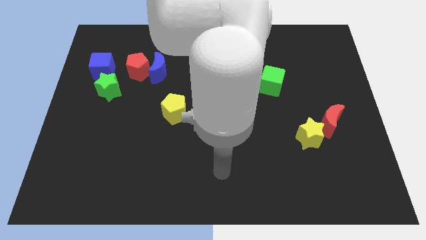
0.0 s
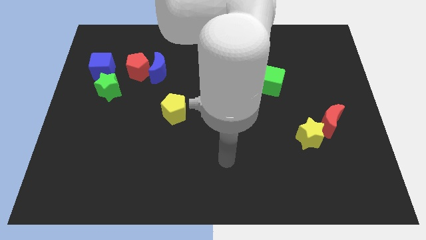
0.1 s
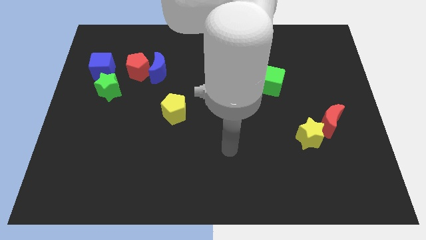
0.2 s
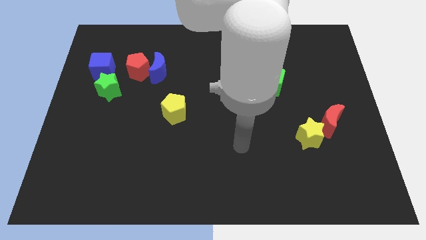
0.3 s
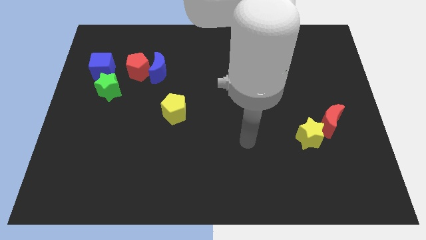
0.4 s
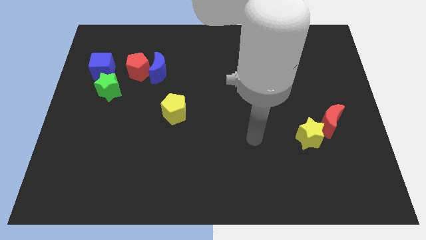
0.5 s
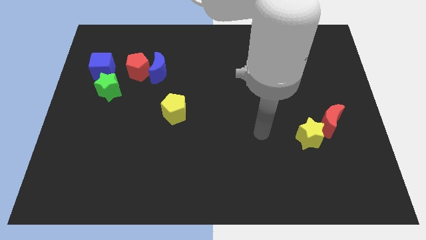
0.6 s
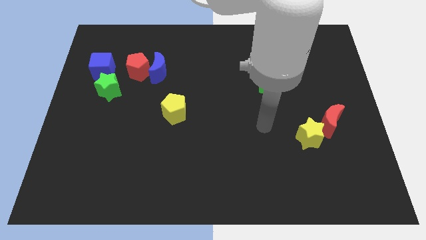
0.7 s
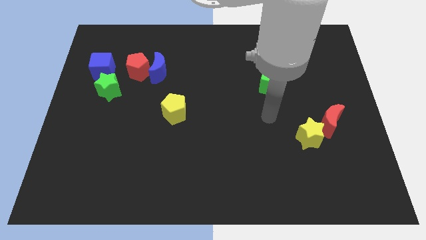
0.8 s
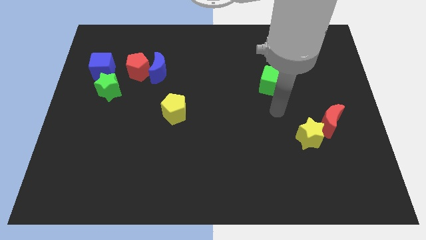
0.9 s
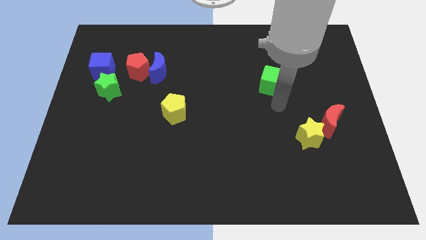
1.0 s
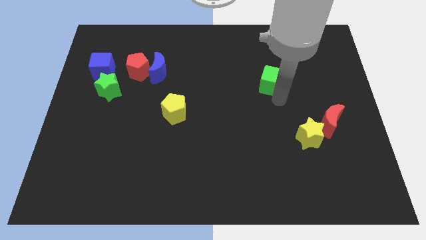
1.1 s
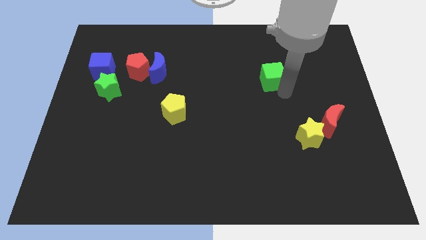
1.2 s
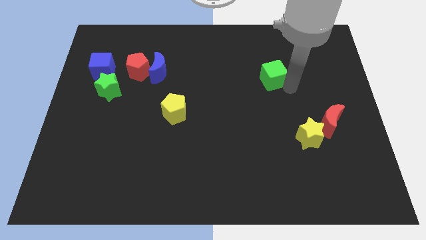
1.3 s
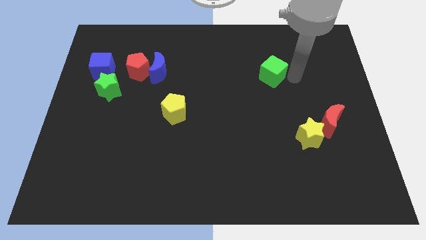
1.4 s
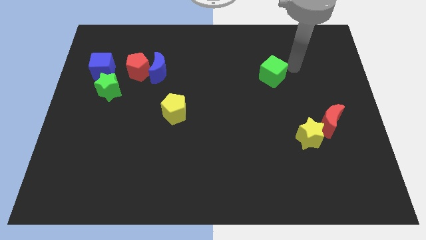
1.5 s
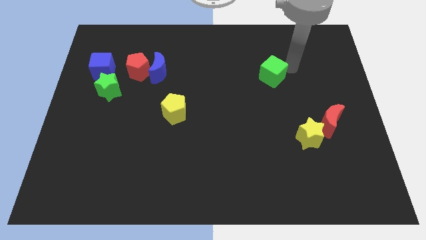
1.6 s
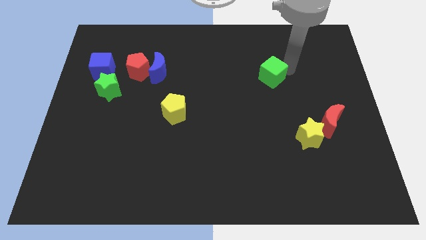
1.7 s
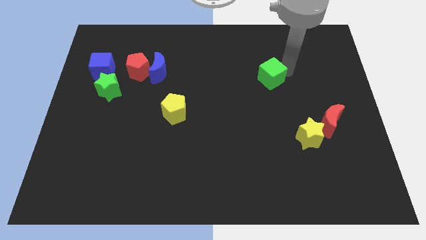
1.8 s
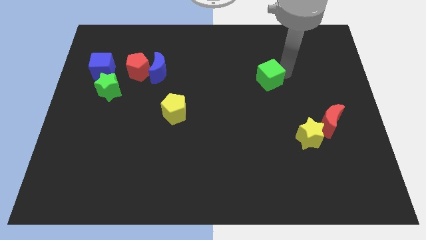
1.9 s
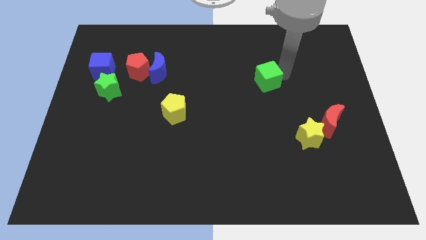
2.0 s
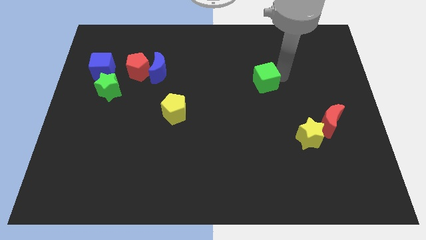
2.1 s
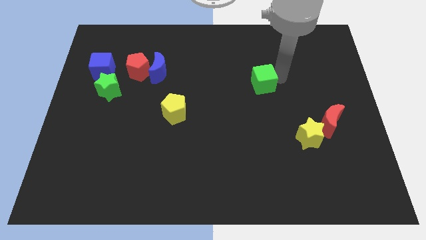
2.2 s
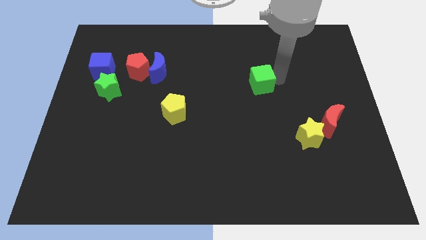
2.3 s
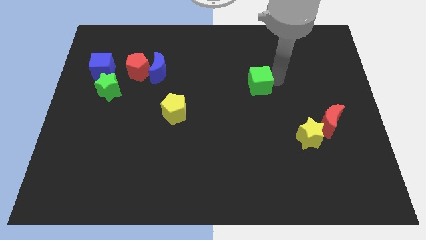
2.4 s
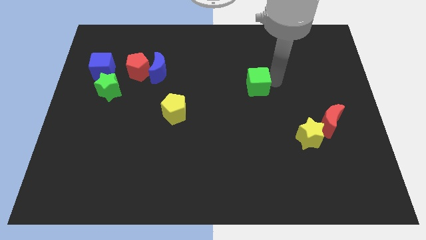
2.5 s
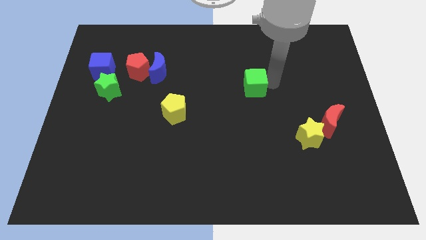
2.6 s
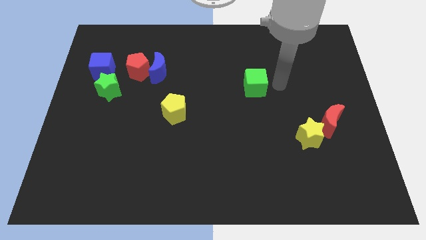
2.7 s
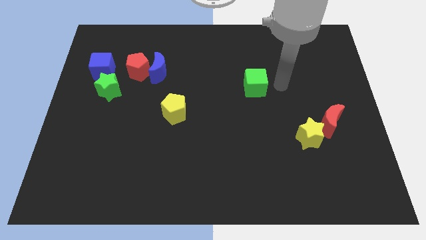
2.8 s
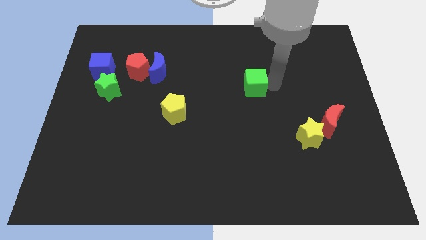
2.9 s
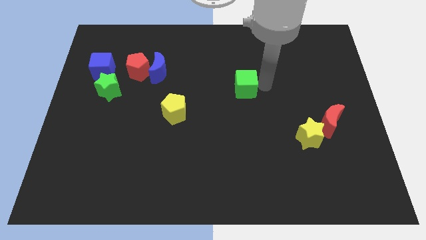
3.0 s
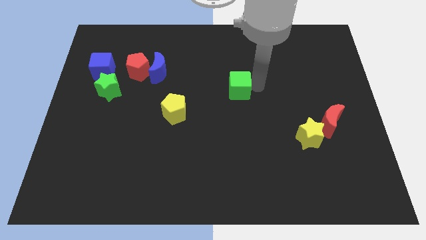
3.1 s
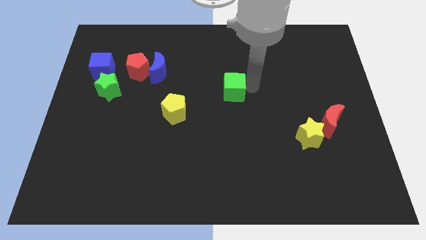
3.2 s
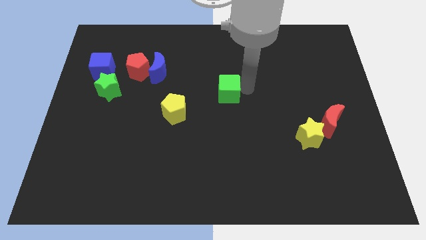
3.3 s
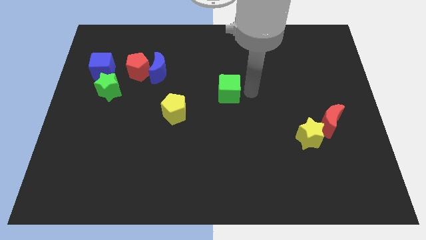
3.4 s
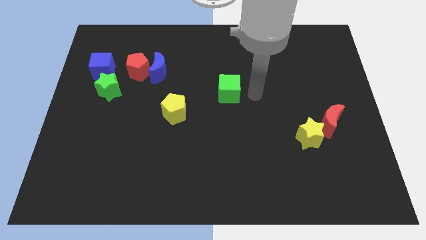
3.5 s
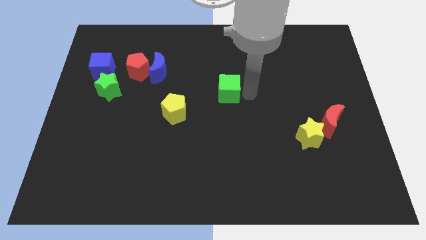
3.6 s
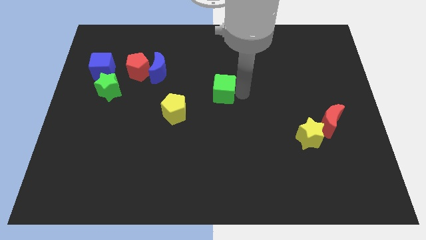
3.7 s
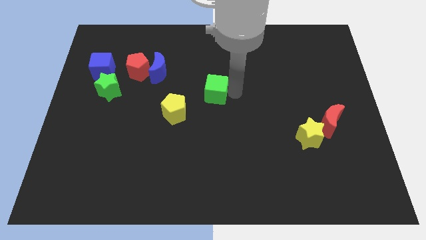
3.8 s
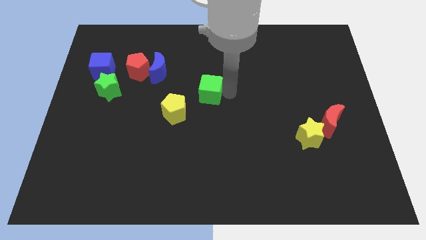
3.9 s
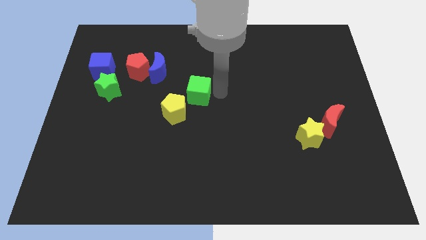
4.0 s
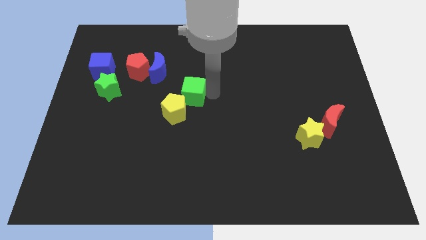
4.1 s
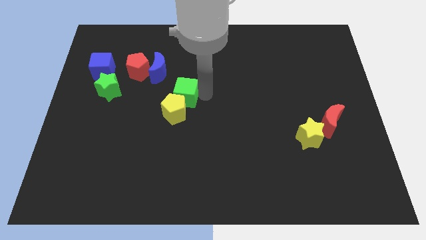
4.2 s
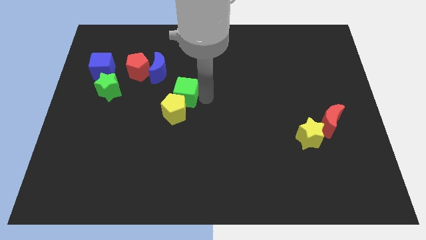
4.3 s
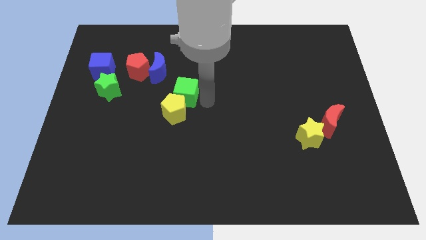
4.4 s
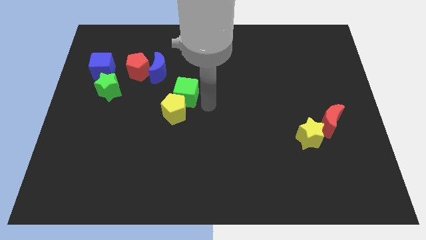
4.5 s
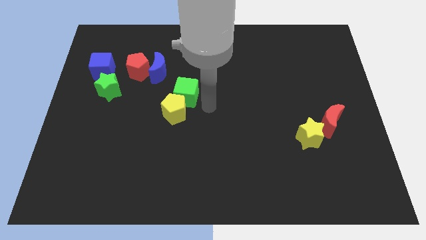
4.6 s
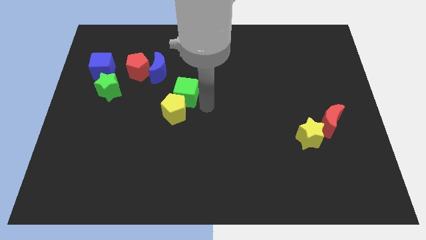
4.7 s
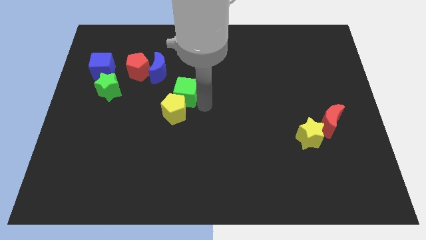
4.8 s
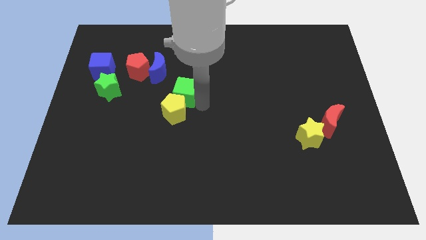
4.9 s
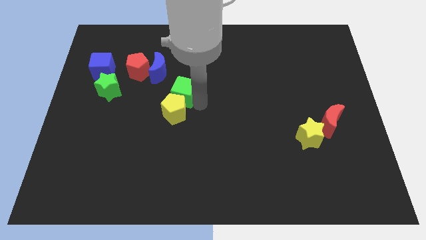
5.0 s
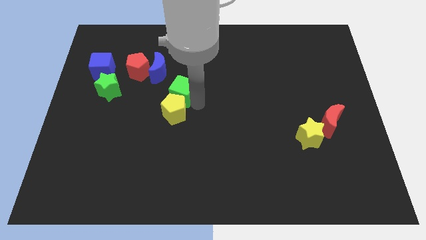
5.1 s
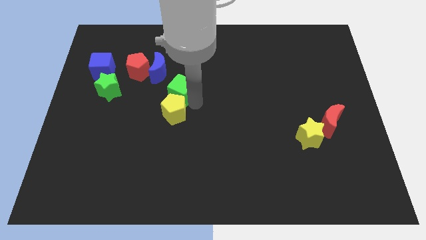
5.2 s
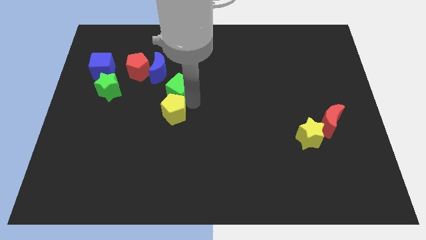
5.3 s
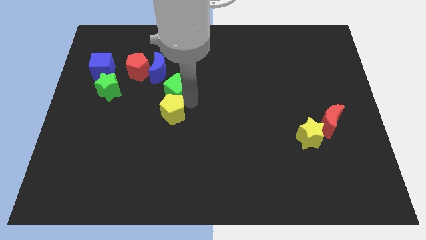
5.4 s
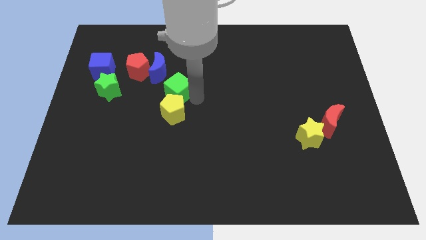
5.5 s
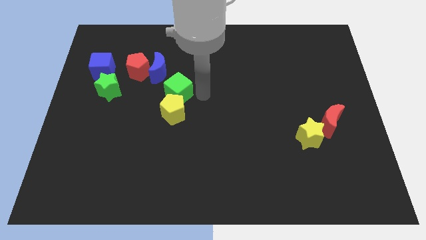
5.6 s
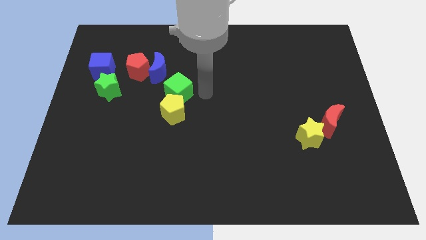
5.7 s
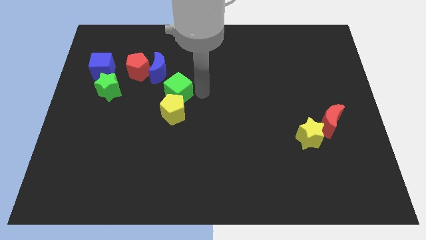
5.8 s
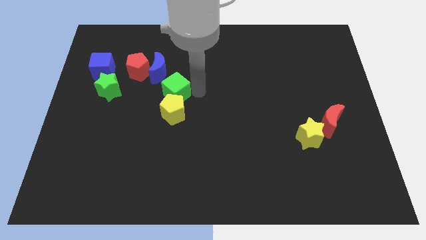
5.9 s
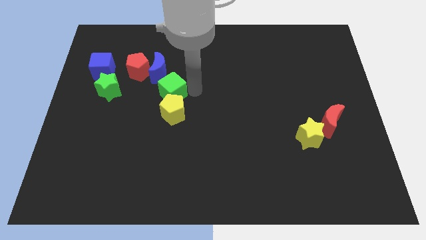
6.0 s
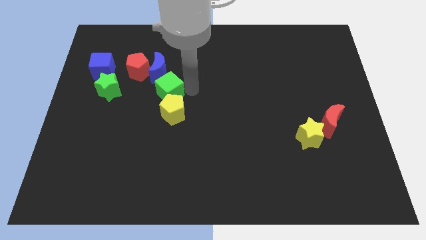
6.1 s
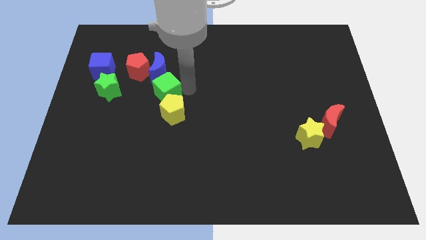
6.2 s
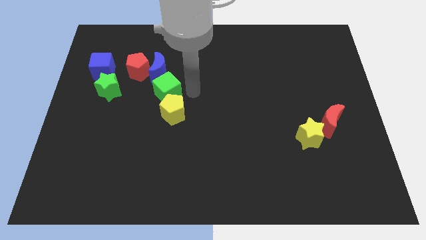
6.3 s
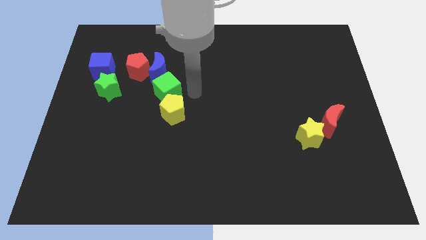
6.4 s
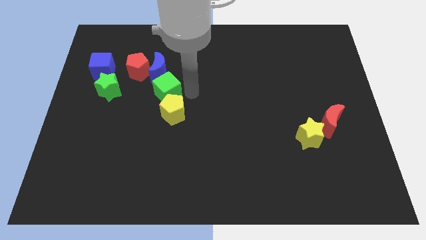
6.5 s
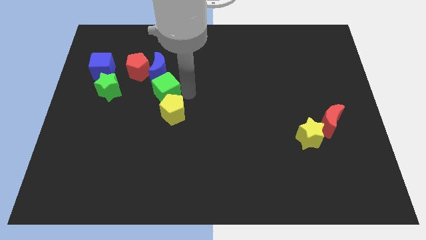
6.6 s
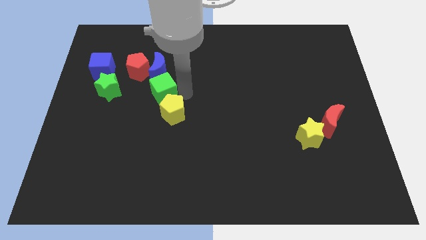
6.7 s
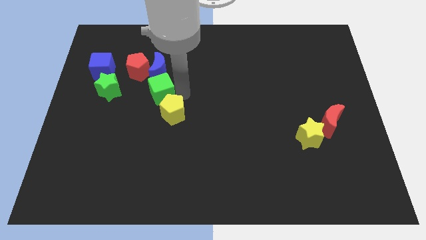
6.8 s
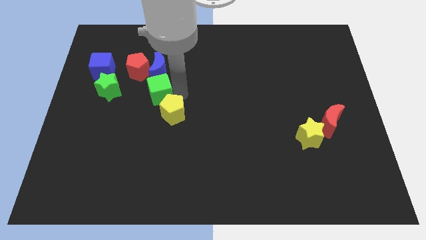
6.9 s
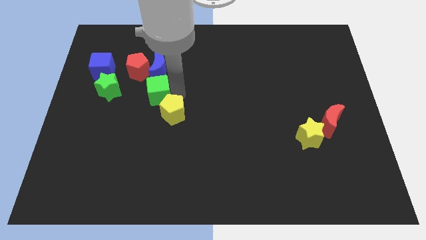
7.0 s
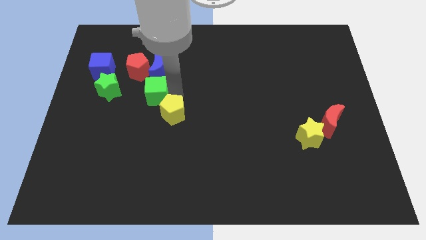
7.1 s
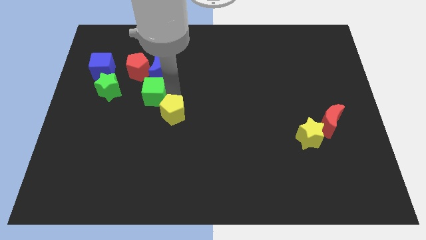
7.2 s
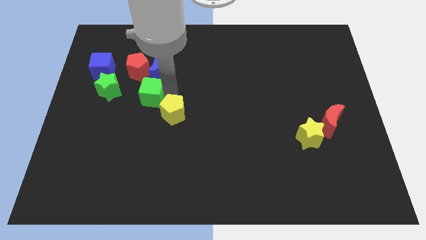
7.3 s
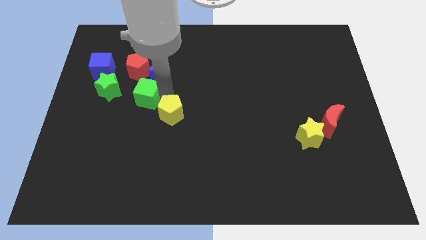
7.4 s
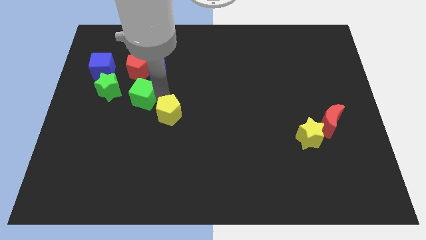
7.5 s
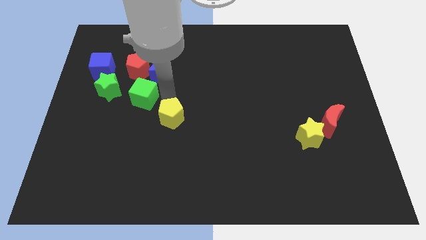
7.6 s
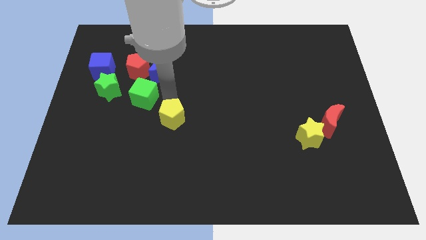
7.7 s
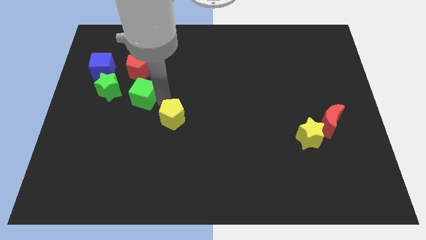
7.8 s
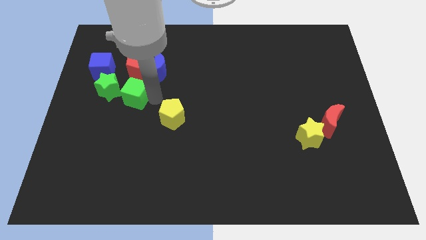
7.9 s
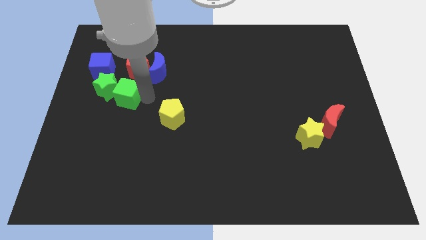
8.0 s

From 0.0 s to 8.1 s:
put the green cube close to the green star
